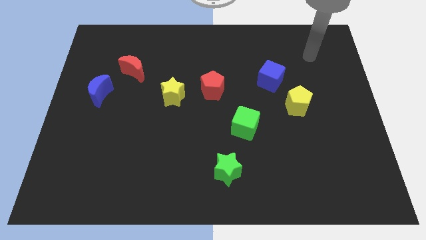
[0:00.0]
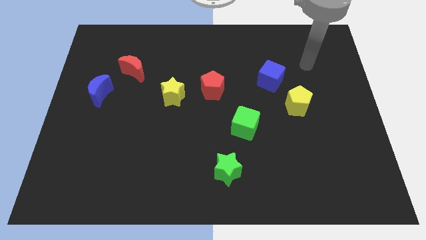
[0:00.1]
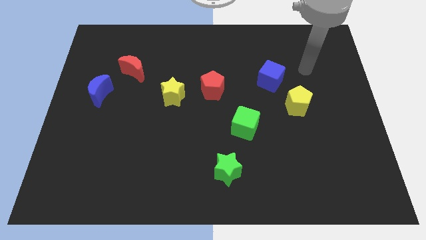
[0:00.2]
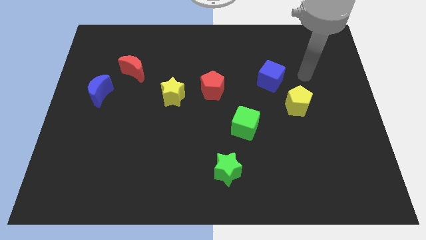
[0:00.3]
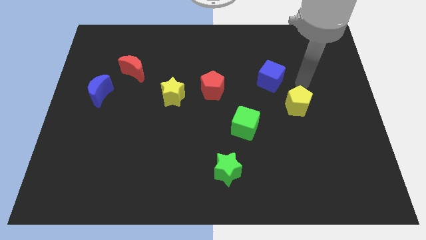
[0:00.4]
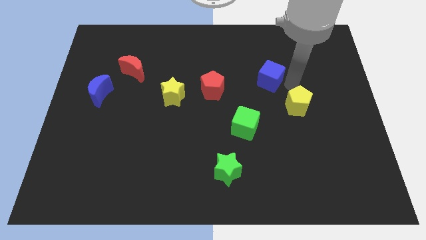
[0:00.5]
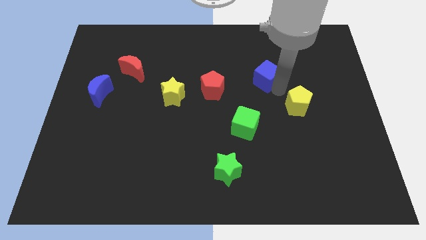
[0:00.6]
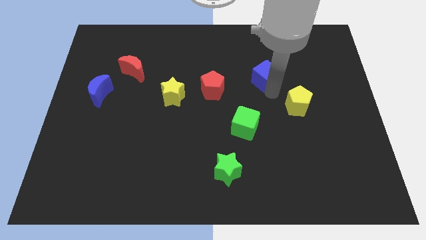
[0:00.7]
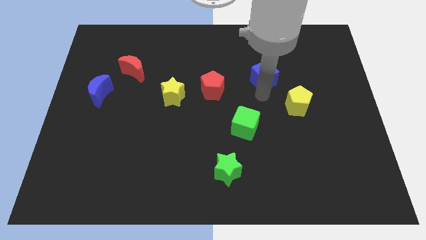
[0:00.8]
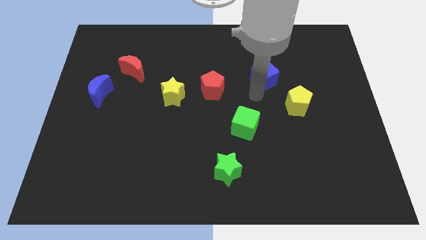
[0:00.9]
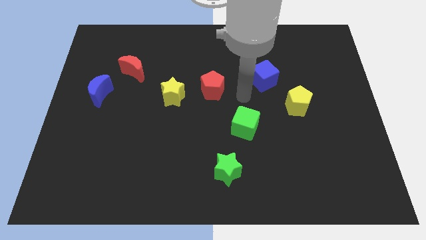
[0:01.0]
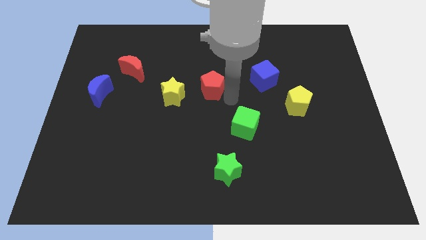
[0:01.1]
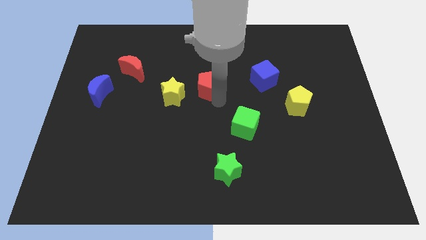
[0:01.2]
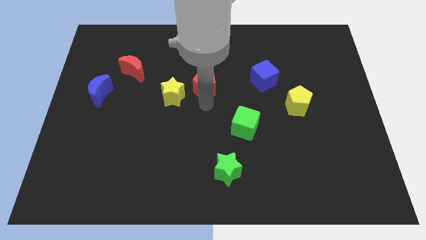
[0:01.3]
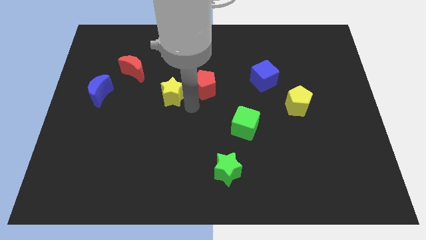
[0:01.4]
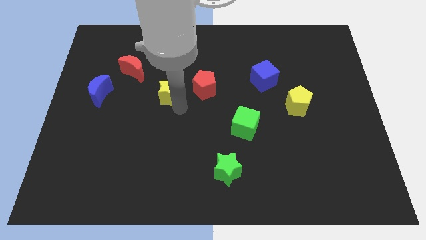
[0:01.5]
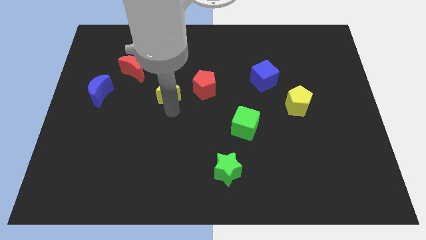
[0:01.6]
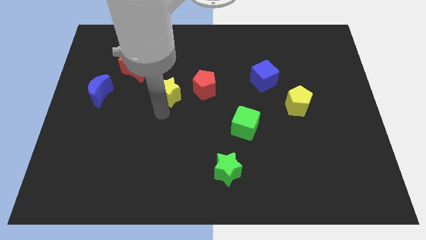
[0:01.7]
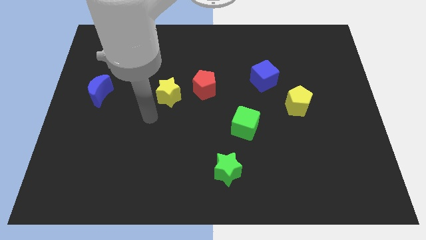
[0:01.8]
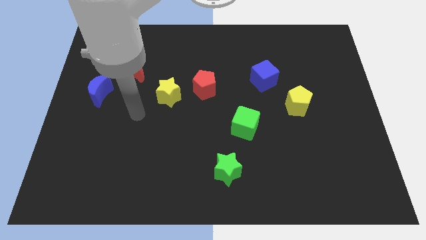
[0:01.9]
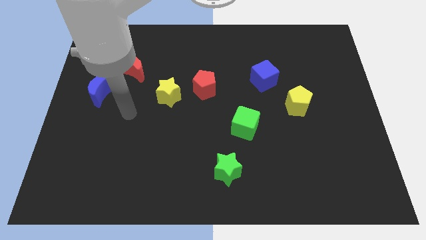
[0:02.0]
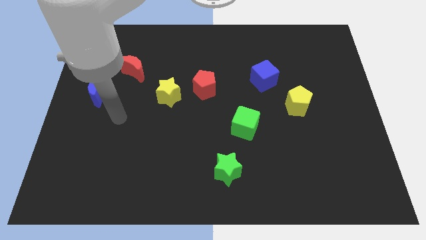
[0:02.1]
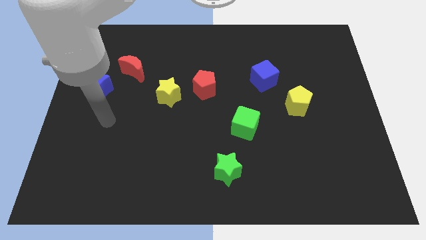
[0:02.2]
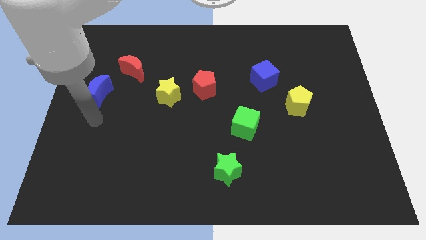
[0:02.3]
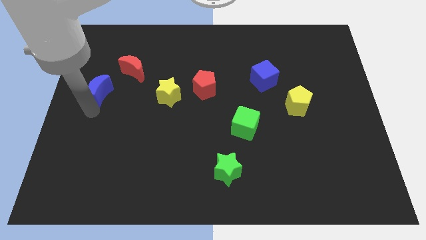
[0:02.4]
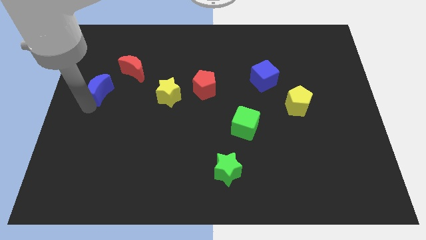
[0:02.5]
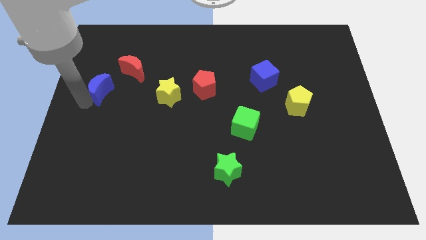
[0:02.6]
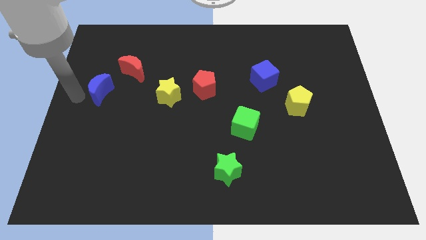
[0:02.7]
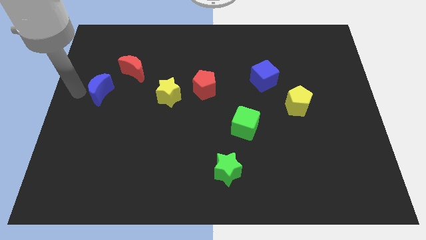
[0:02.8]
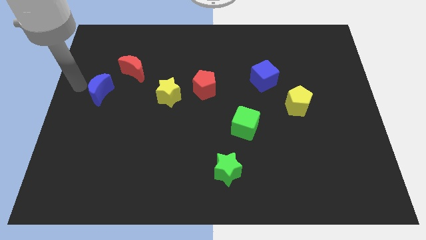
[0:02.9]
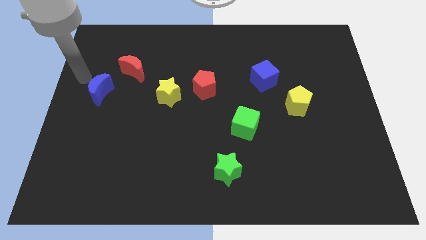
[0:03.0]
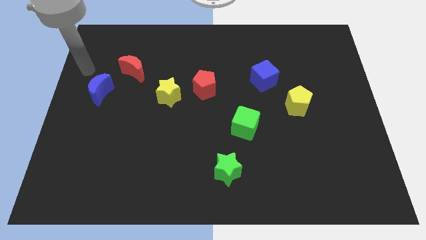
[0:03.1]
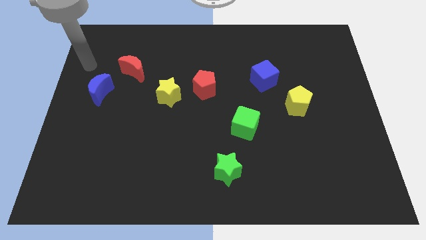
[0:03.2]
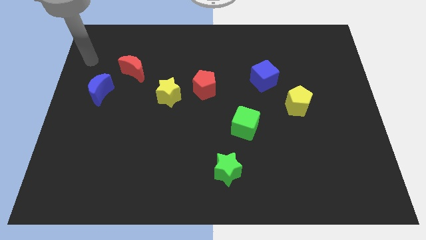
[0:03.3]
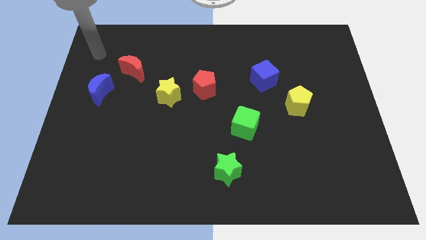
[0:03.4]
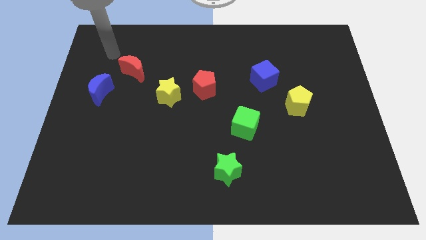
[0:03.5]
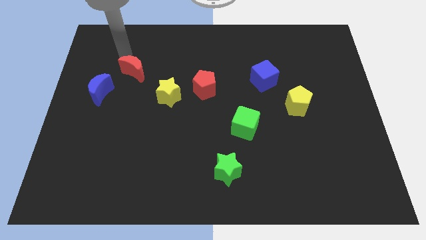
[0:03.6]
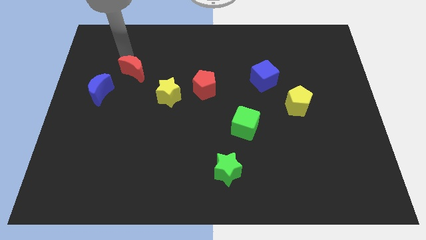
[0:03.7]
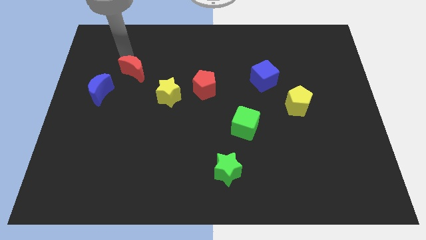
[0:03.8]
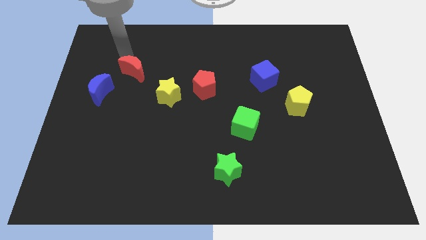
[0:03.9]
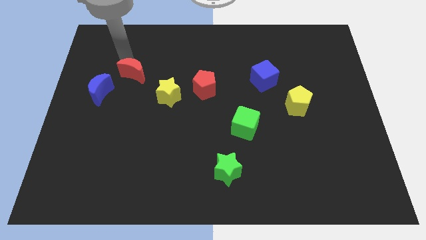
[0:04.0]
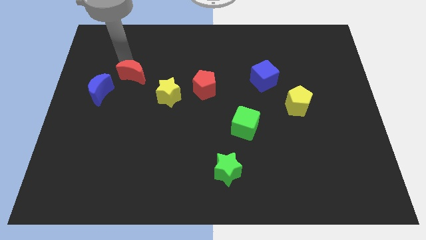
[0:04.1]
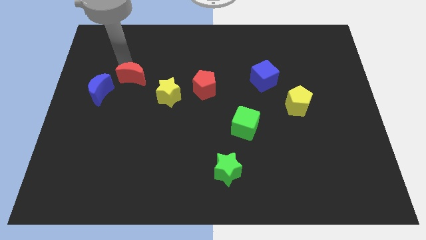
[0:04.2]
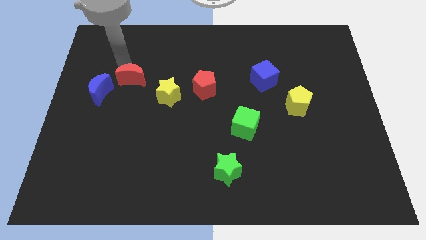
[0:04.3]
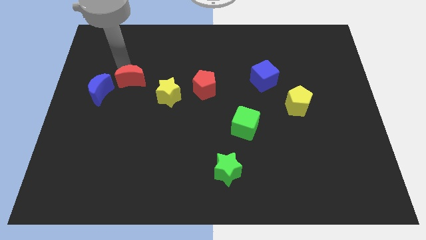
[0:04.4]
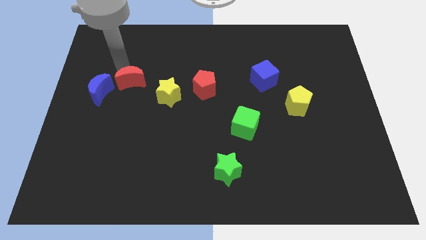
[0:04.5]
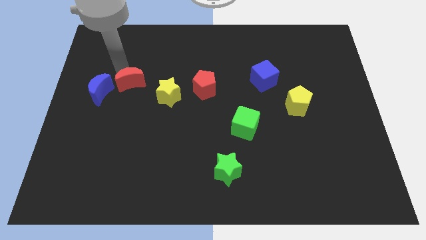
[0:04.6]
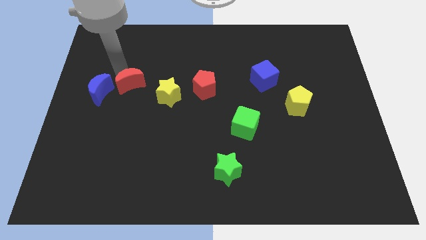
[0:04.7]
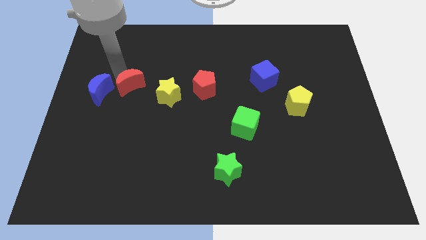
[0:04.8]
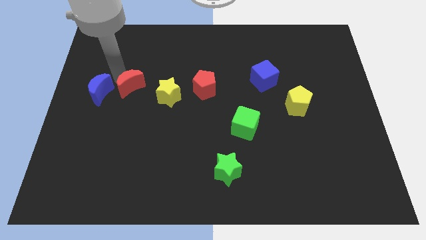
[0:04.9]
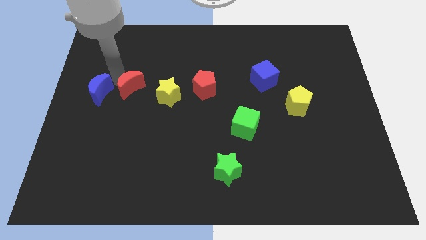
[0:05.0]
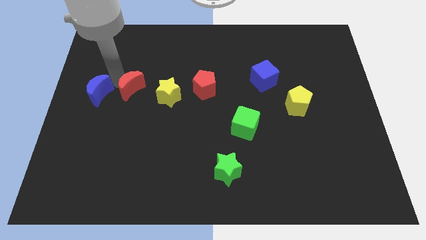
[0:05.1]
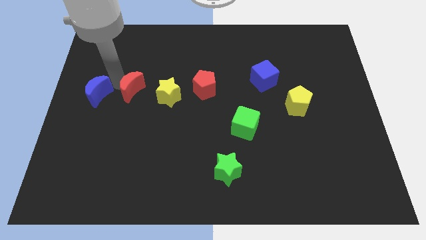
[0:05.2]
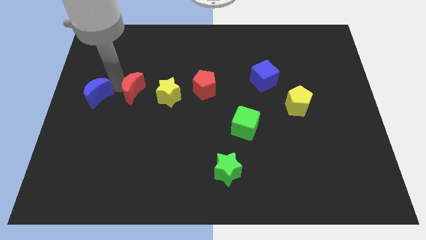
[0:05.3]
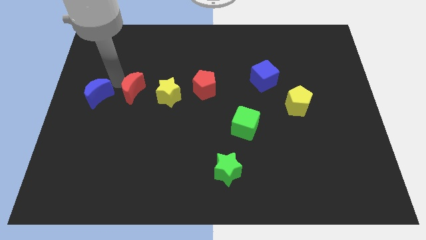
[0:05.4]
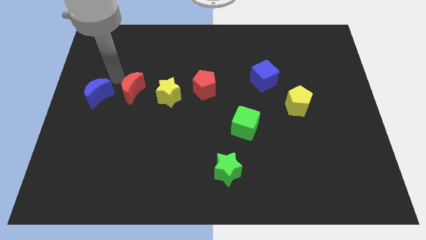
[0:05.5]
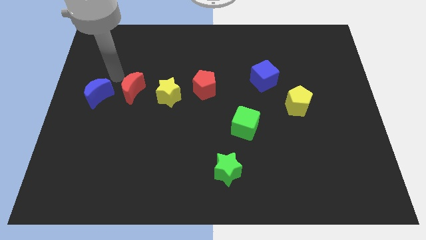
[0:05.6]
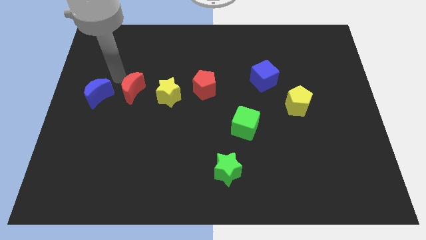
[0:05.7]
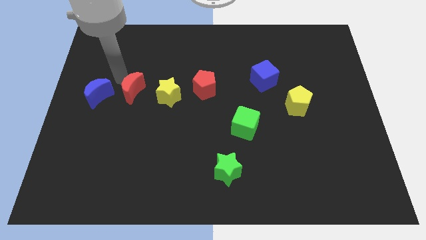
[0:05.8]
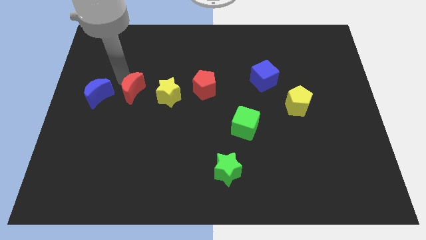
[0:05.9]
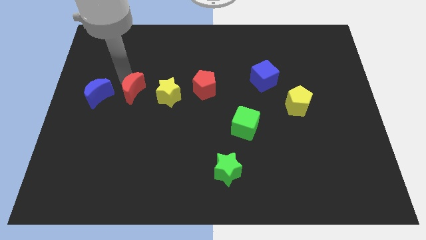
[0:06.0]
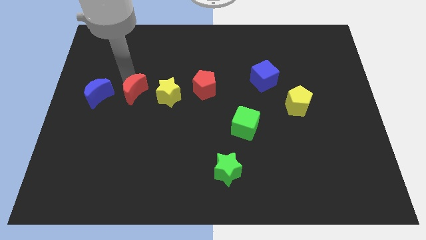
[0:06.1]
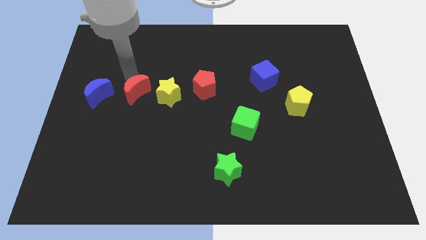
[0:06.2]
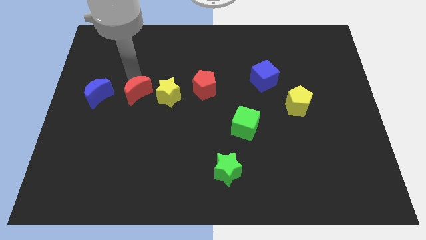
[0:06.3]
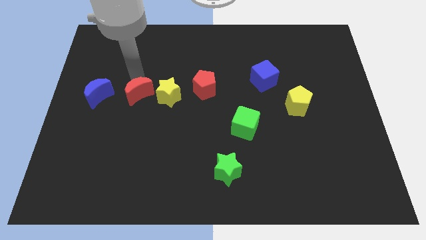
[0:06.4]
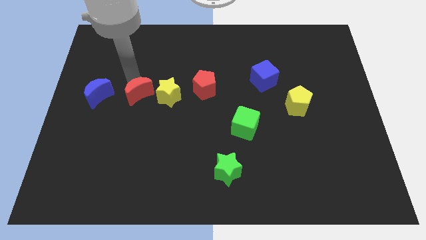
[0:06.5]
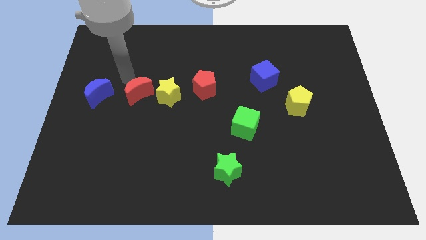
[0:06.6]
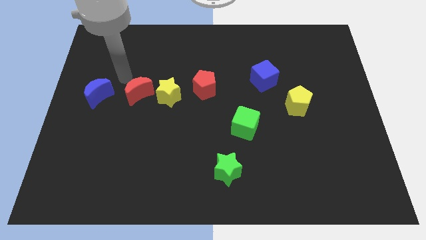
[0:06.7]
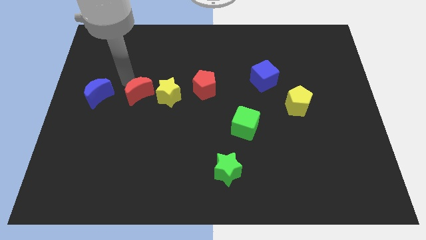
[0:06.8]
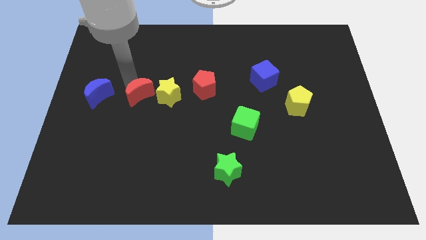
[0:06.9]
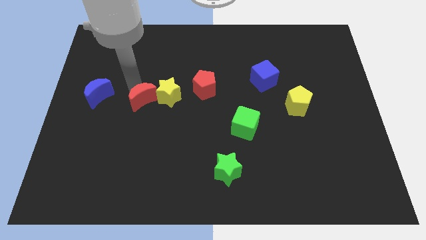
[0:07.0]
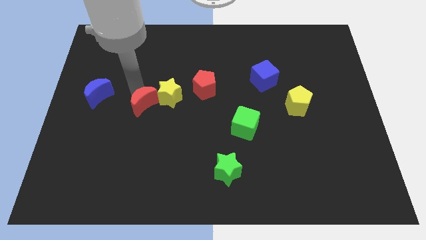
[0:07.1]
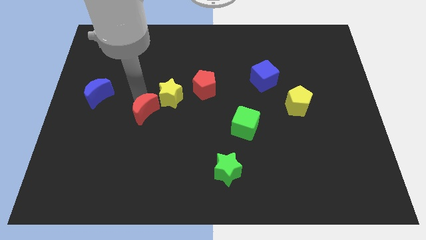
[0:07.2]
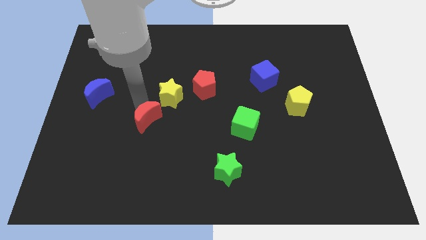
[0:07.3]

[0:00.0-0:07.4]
push the red moon to the bottom of the yellow star
